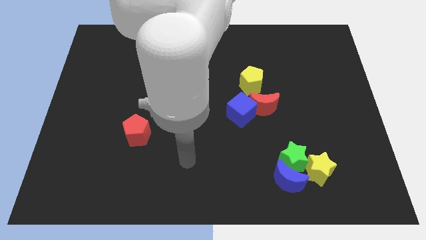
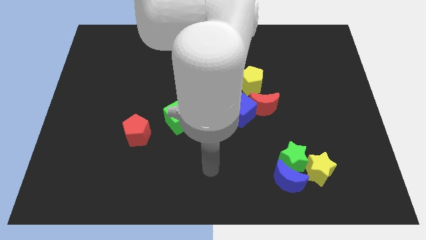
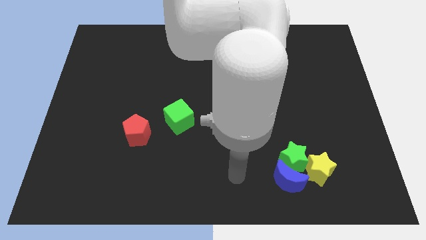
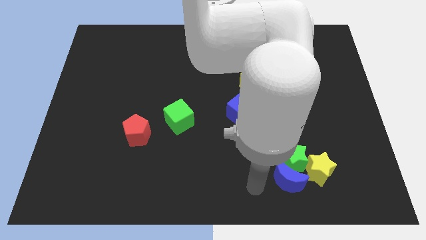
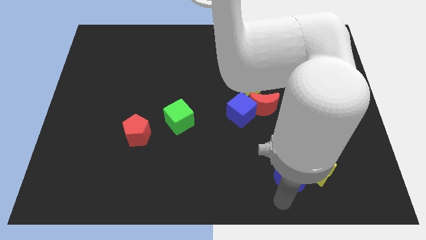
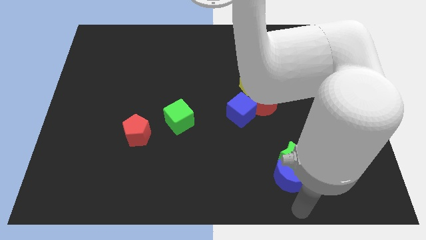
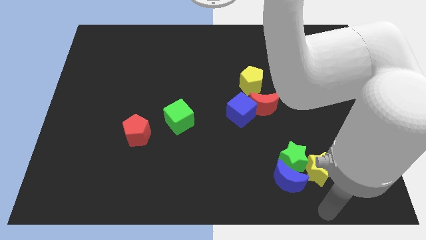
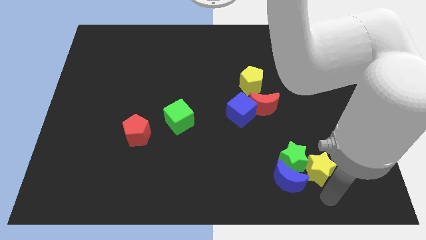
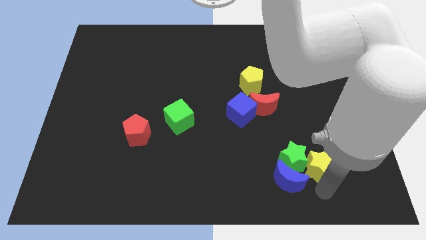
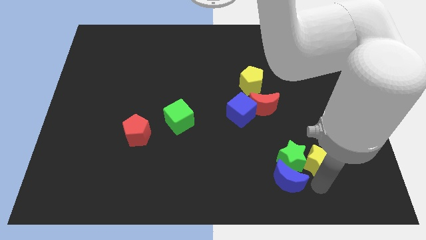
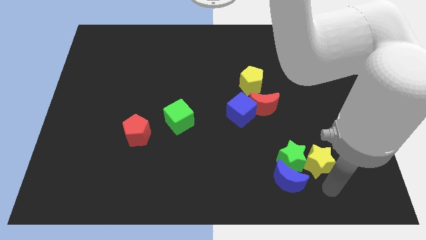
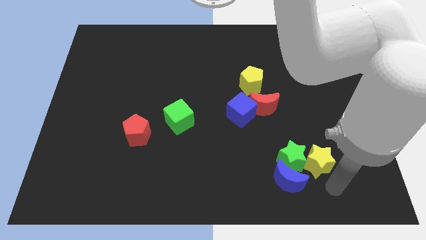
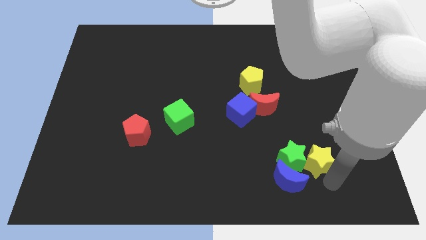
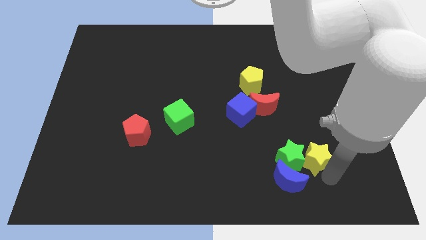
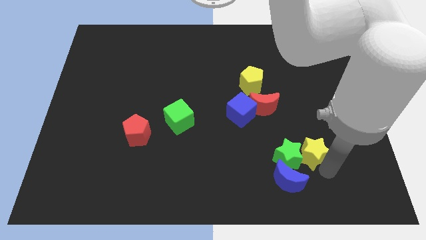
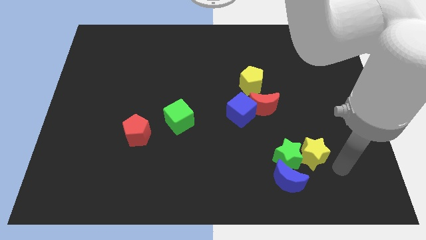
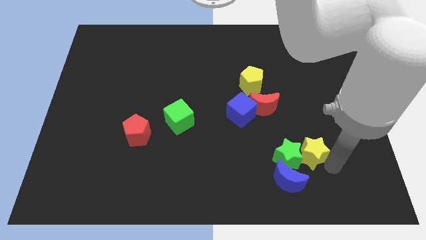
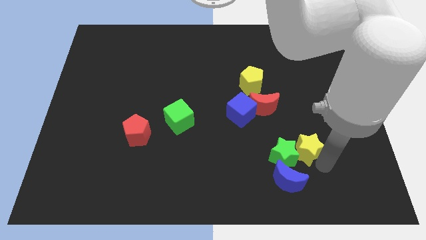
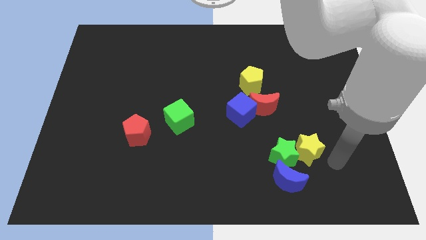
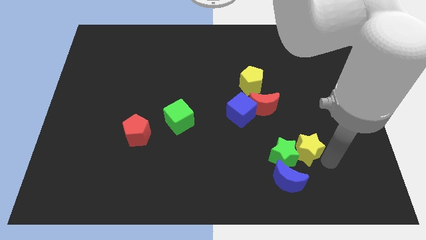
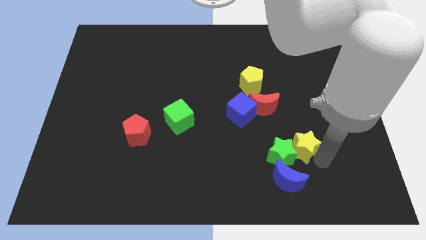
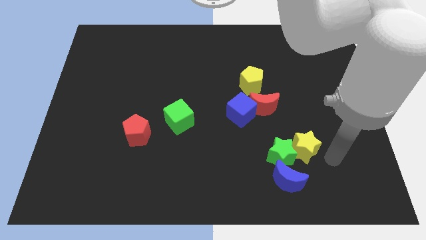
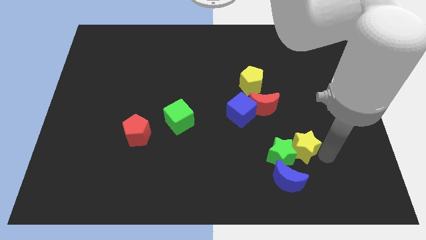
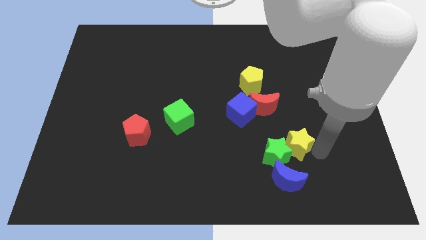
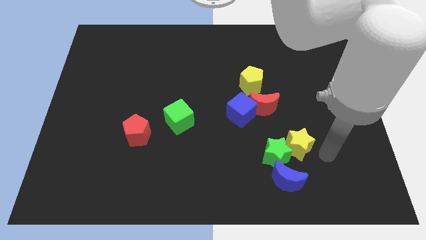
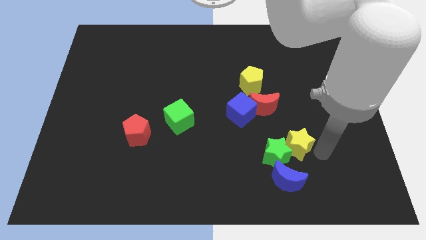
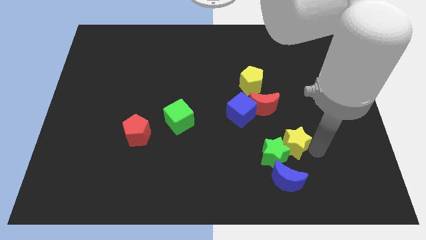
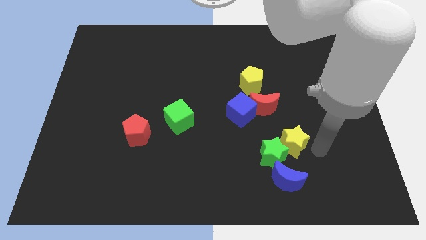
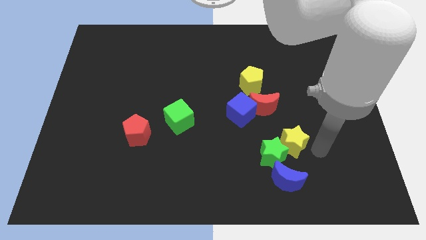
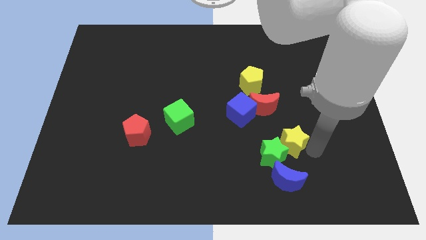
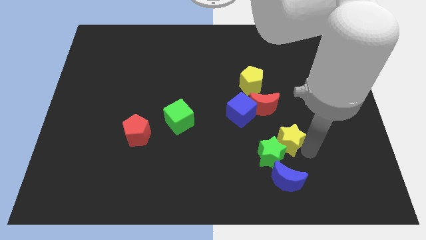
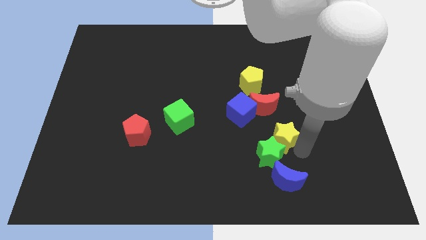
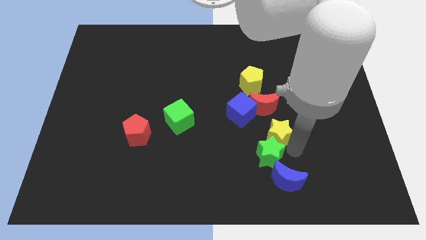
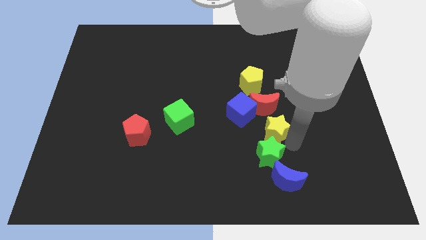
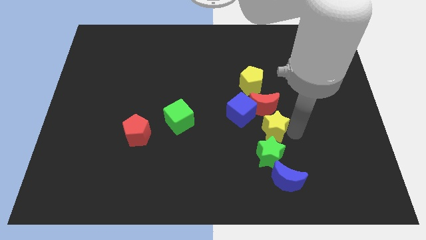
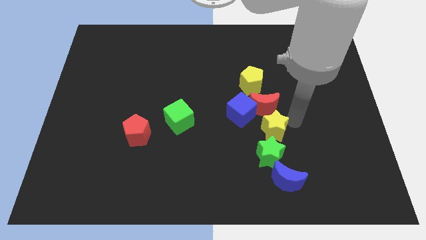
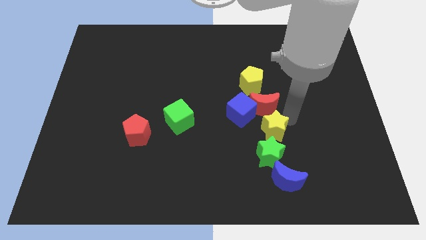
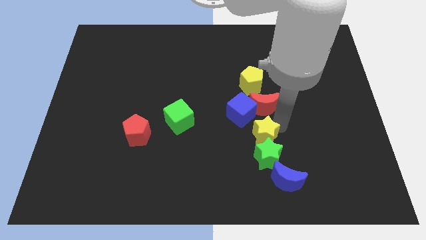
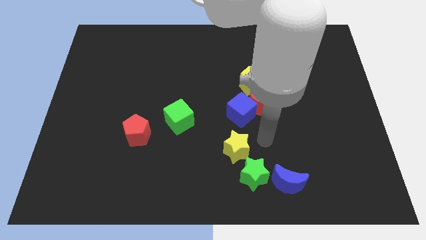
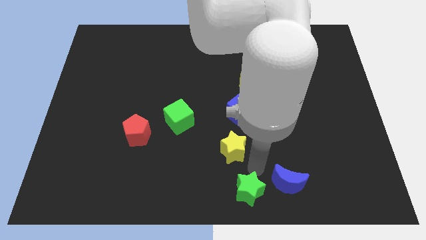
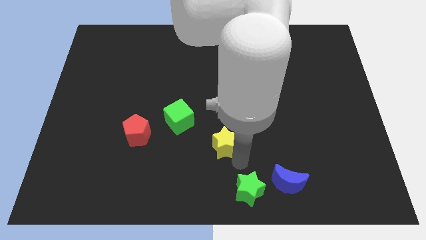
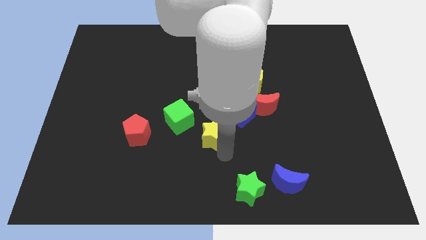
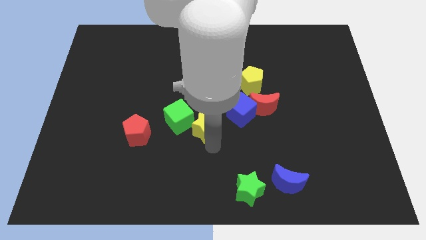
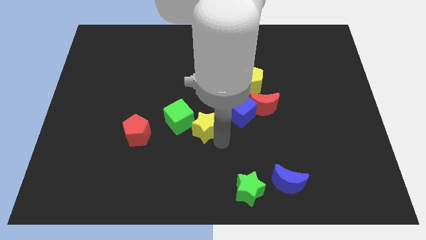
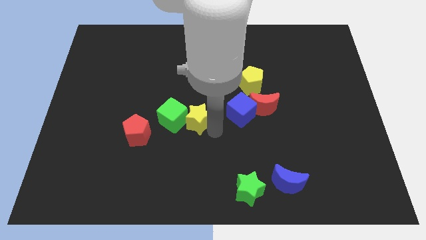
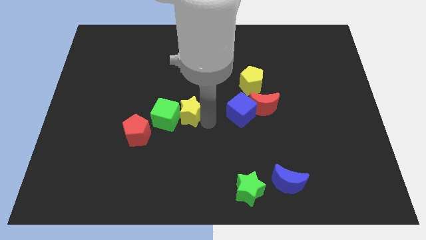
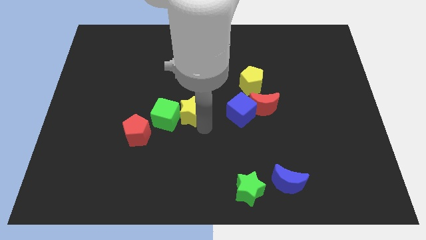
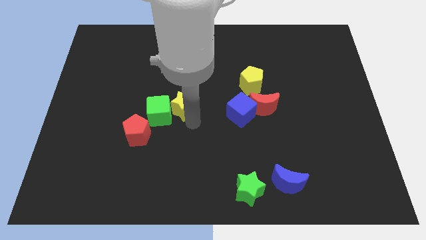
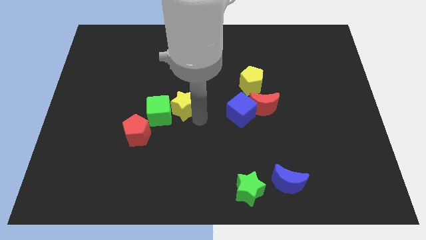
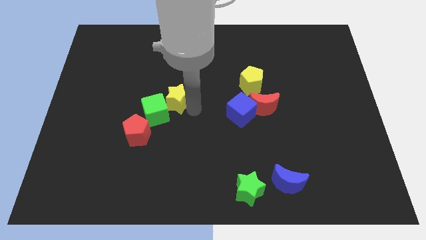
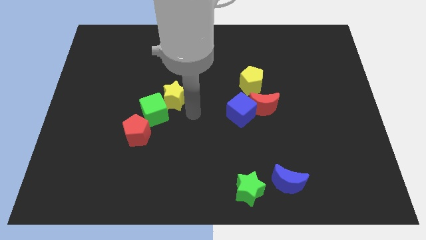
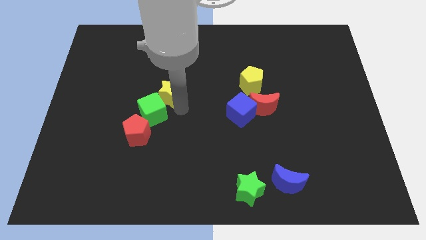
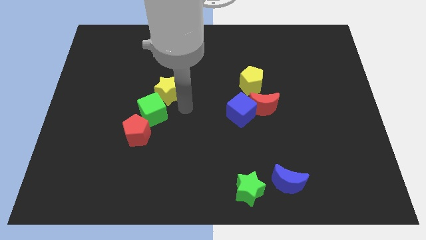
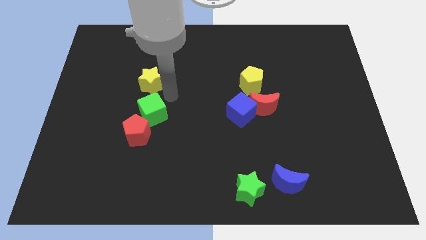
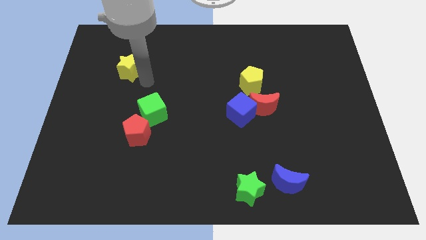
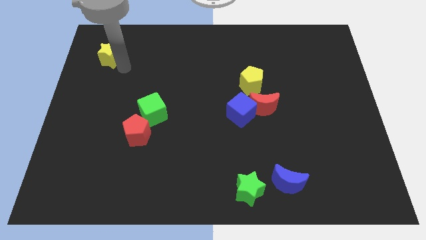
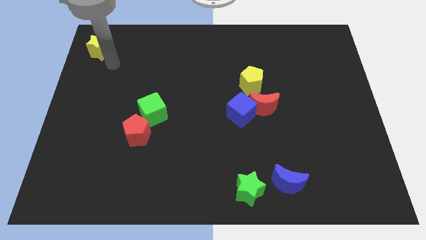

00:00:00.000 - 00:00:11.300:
slide the yellow star to the top left of the board
